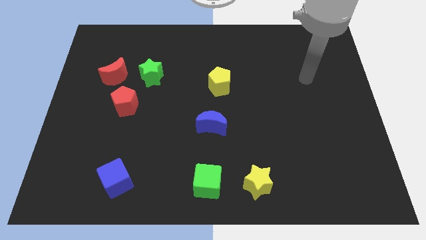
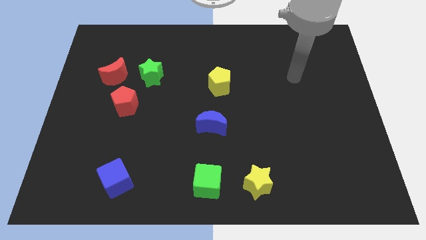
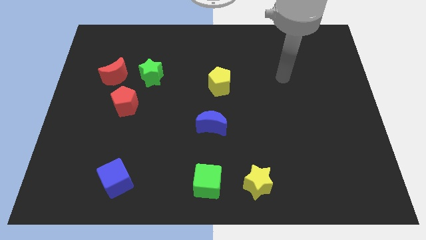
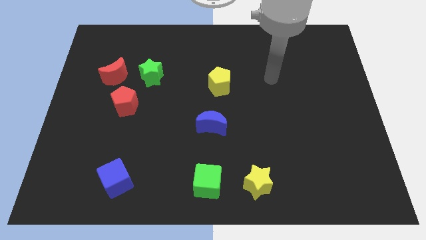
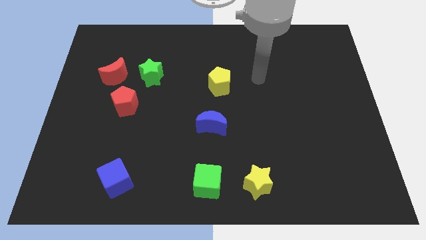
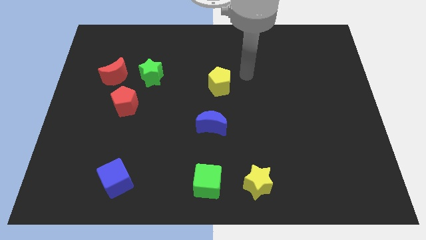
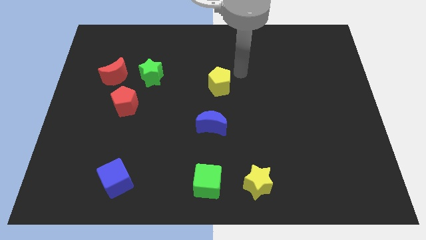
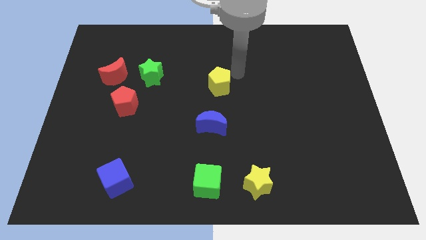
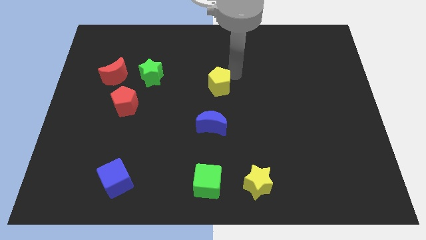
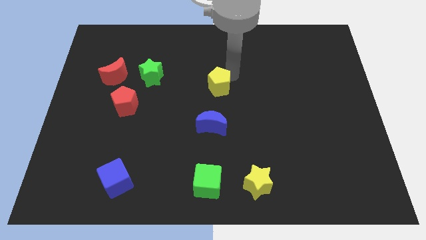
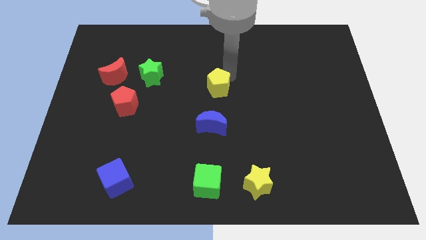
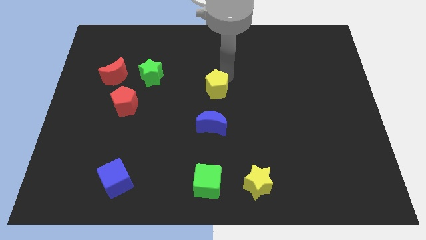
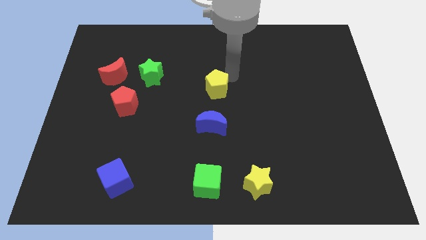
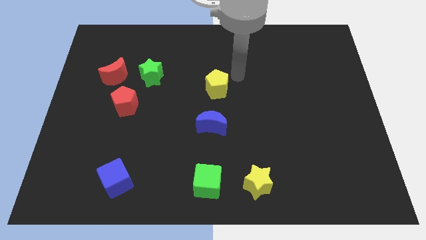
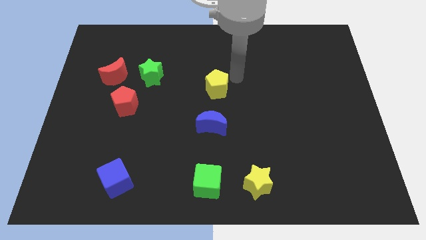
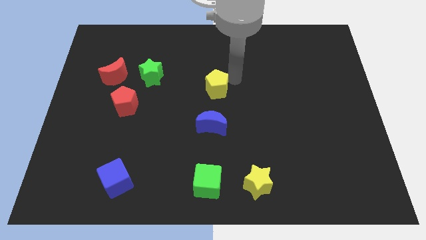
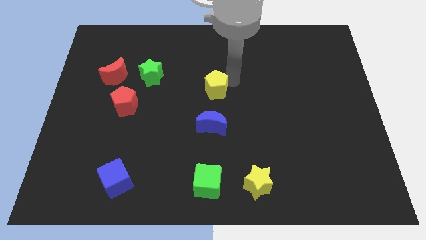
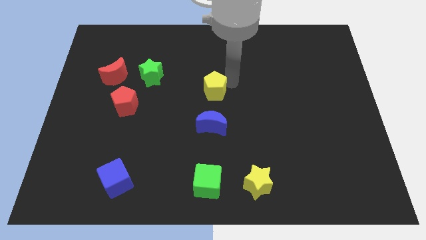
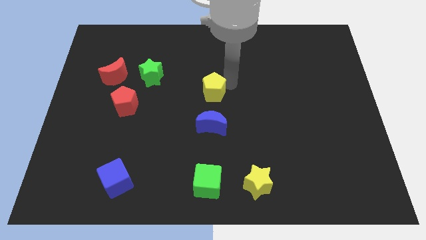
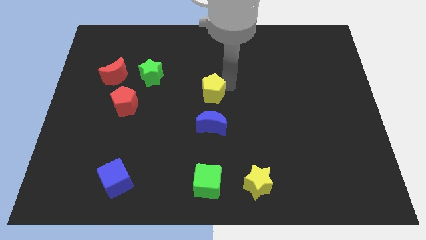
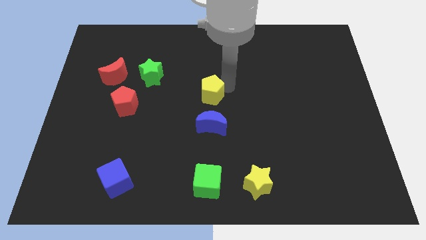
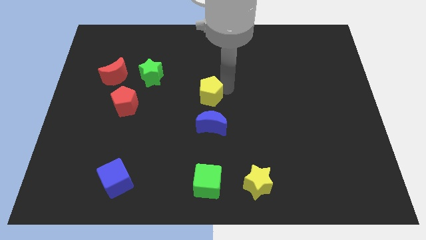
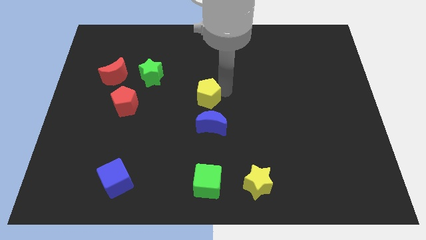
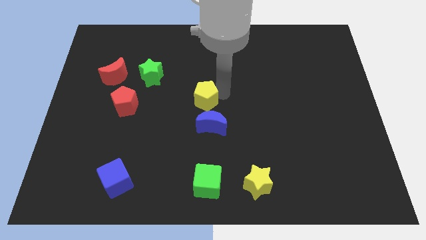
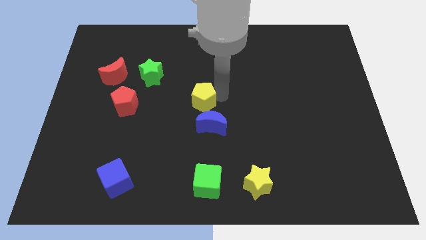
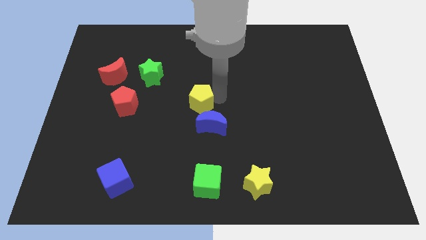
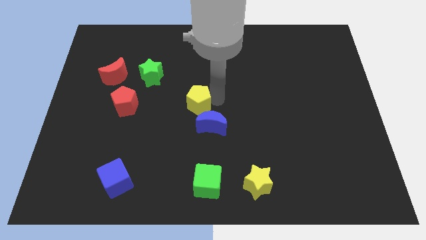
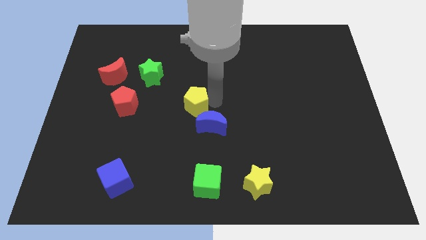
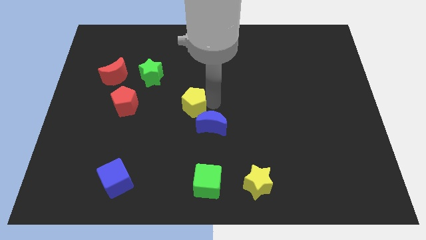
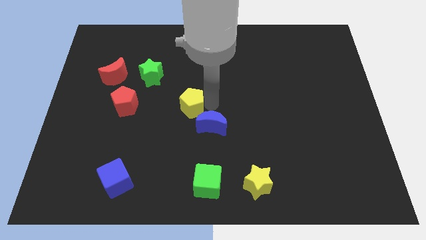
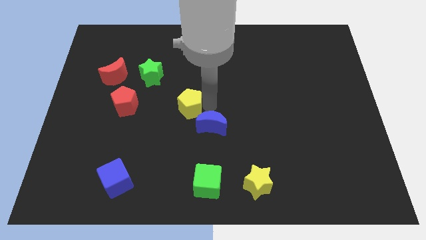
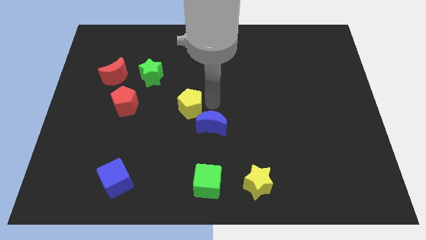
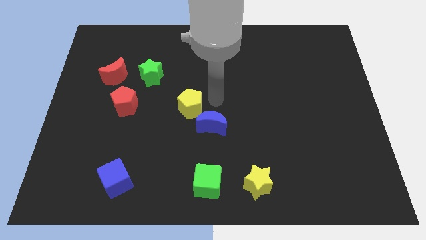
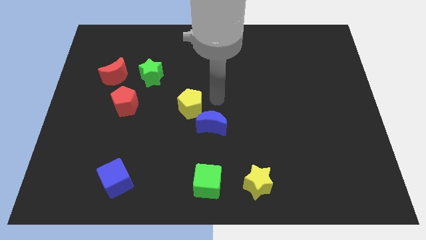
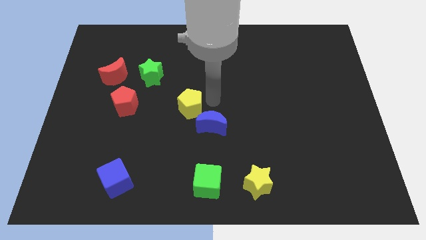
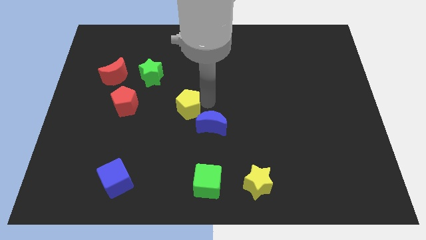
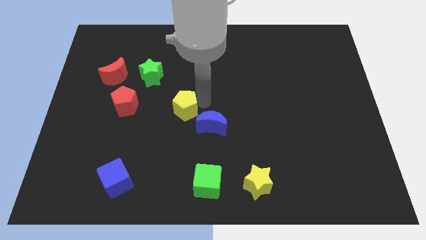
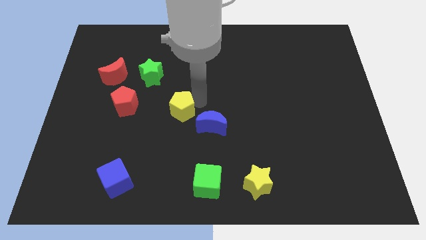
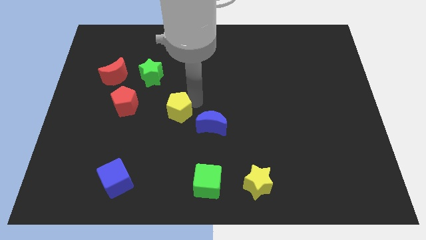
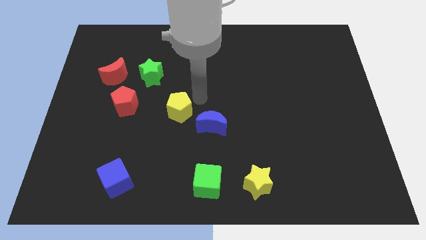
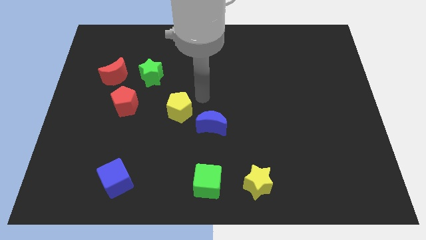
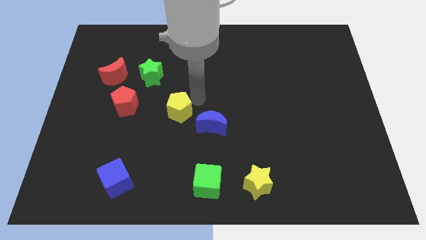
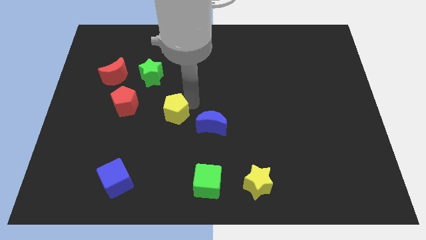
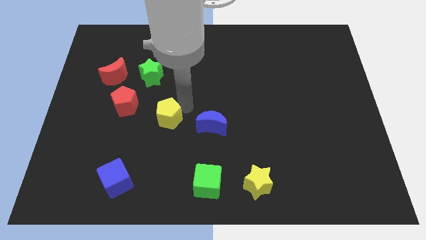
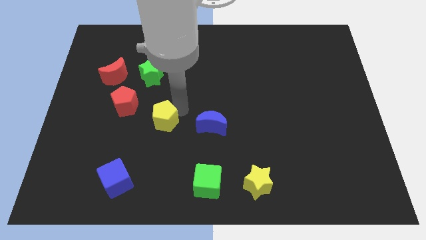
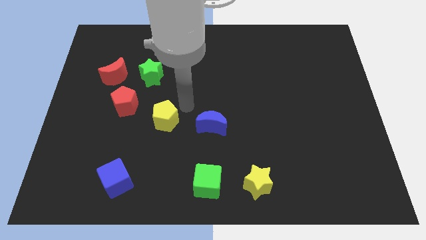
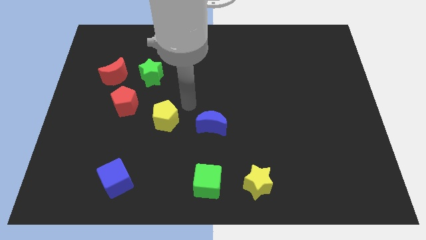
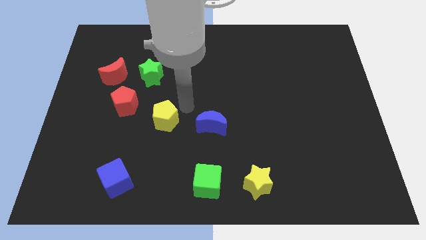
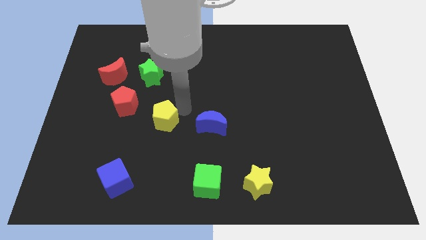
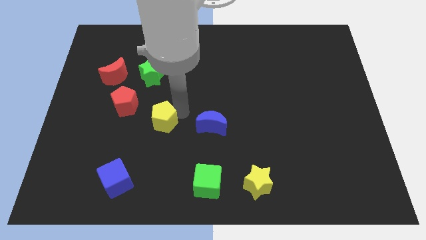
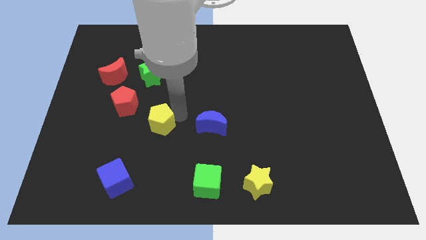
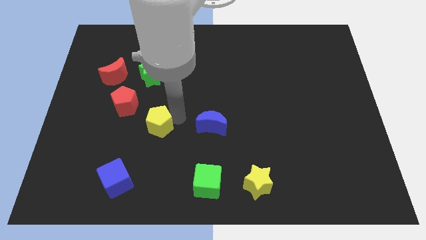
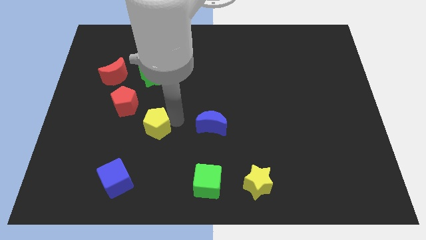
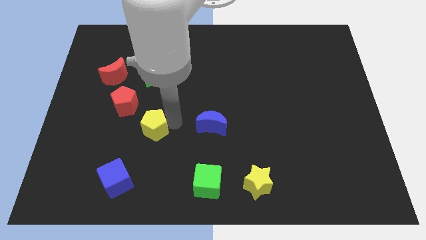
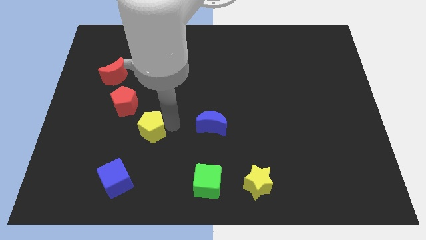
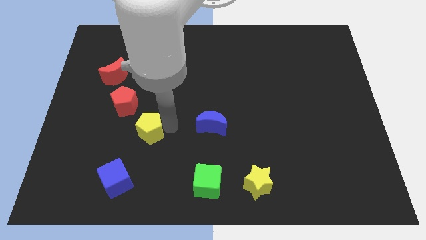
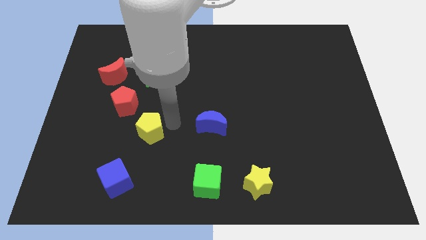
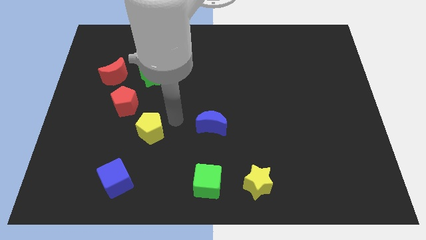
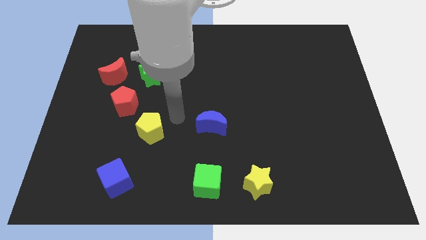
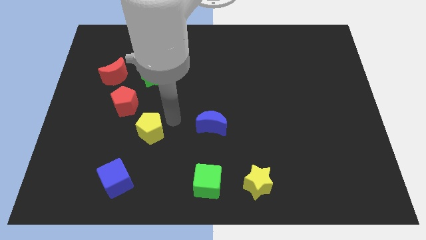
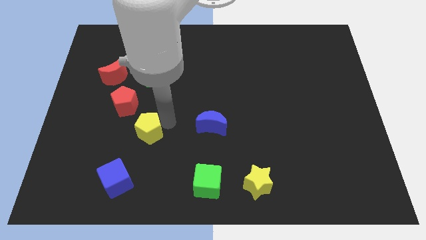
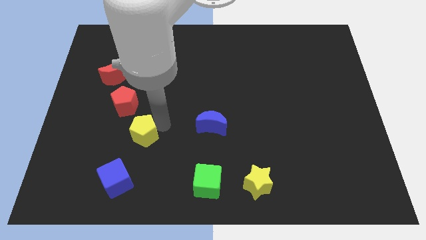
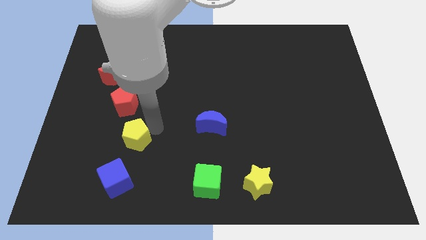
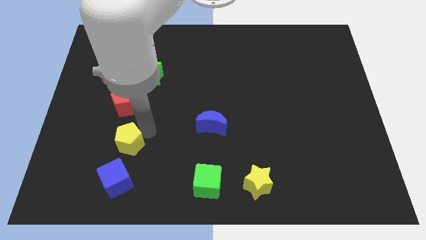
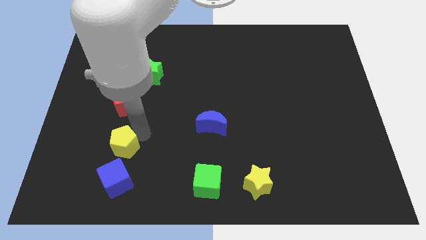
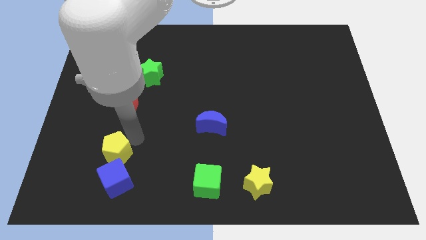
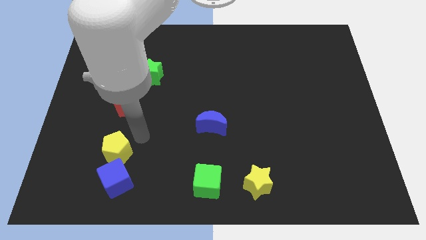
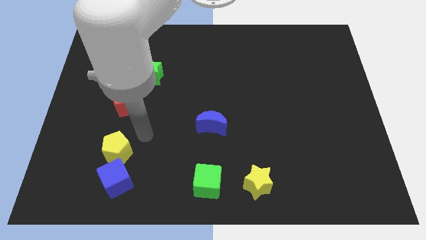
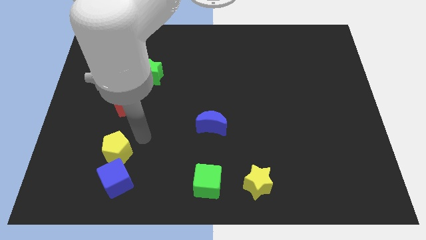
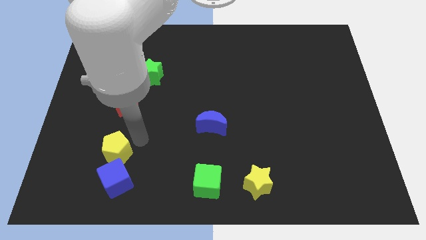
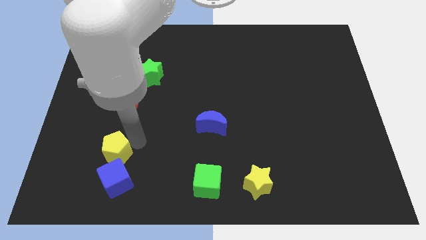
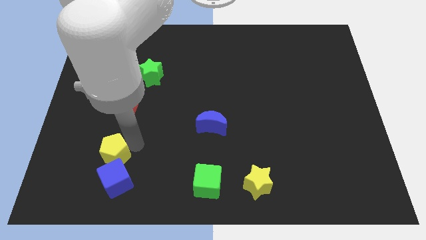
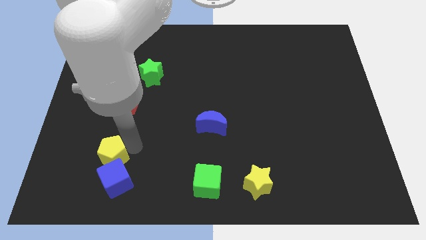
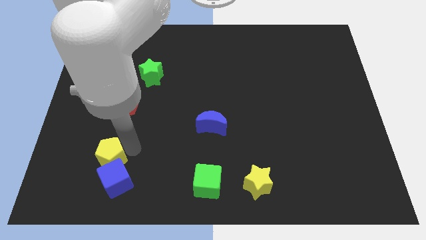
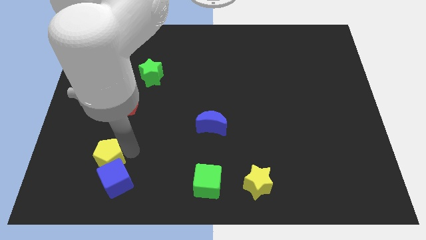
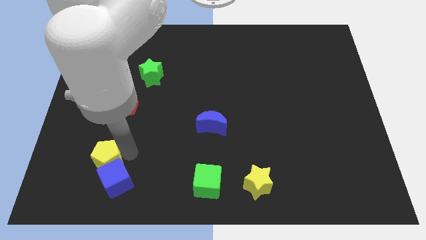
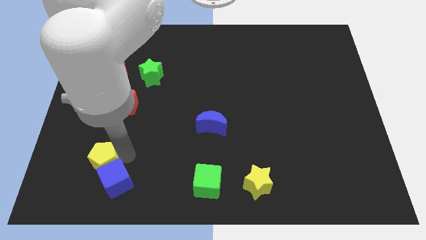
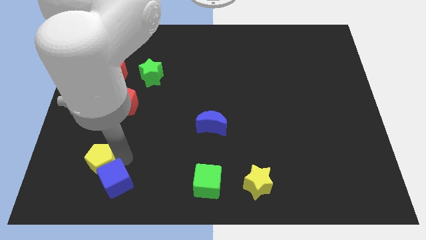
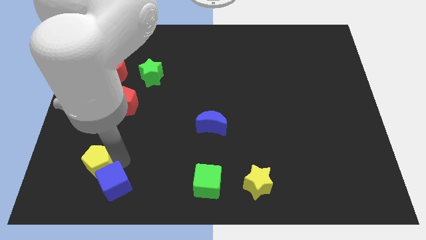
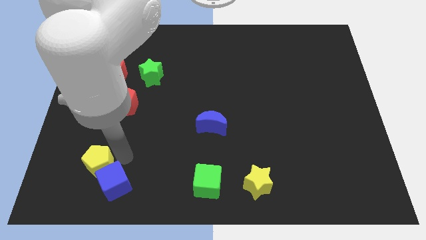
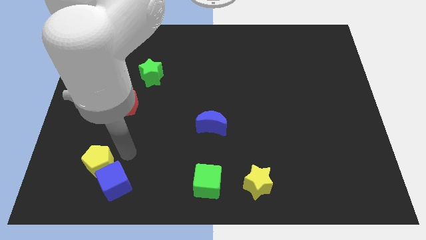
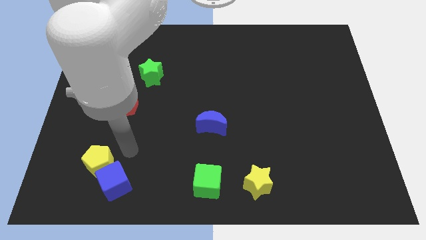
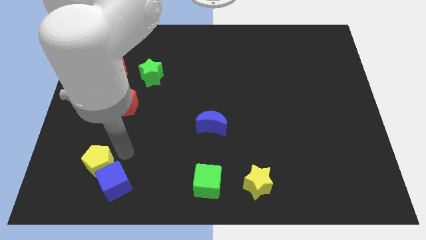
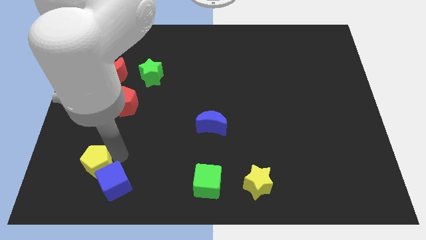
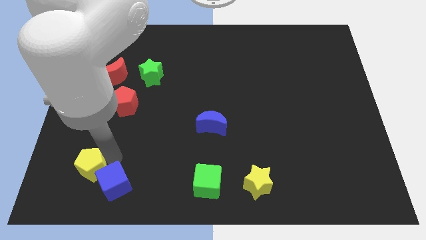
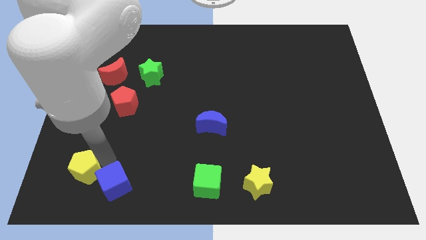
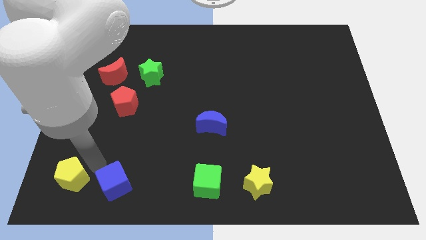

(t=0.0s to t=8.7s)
put the yellow pentagon to the bottom left of the board
